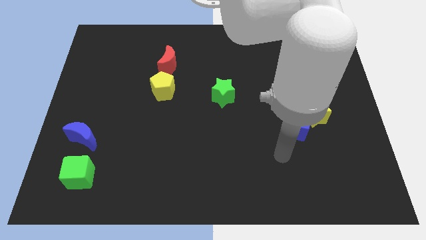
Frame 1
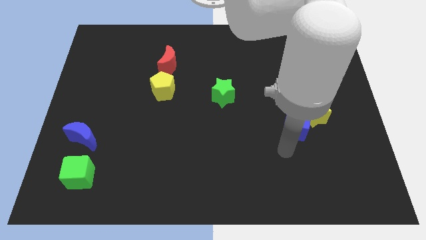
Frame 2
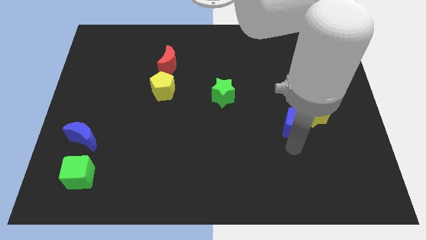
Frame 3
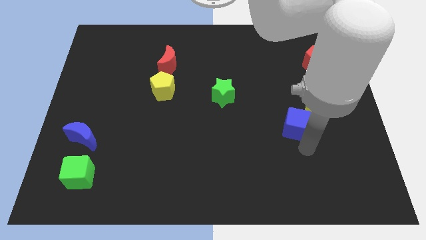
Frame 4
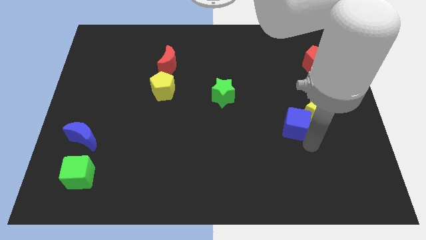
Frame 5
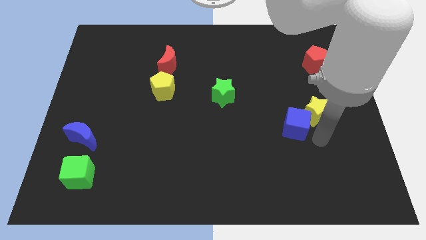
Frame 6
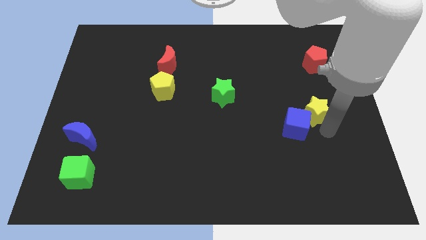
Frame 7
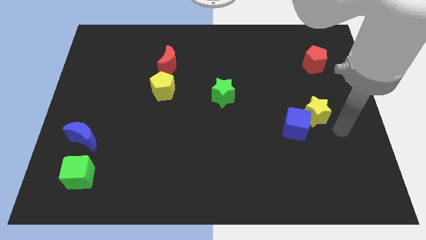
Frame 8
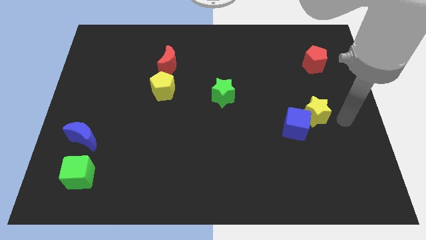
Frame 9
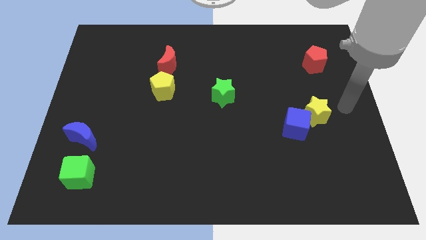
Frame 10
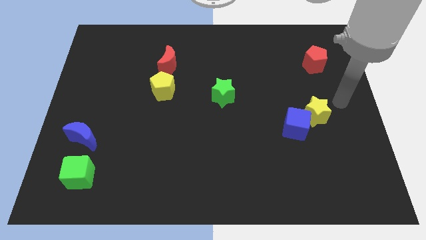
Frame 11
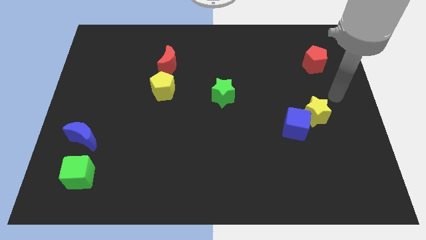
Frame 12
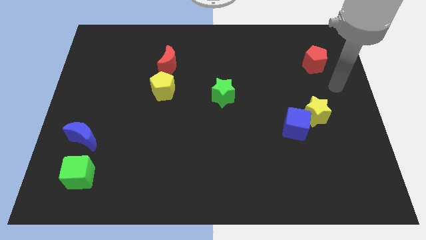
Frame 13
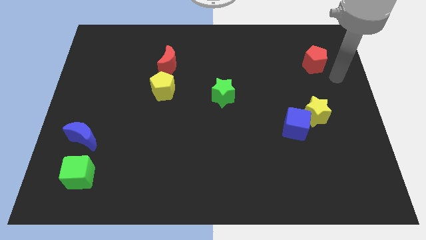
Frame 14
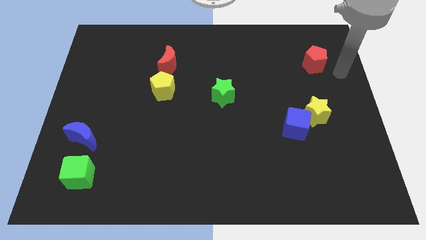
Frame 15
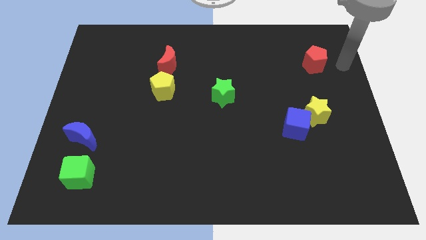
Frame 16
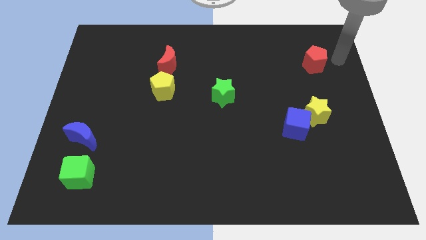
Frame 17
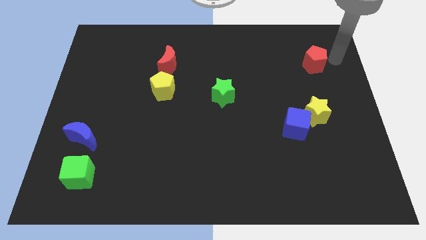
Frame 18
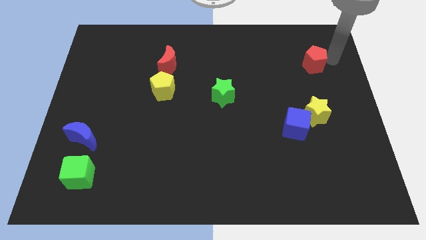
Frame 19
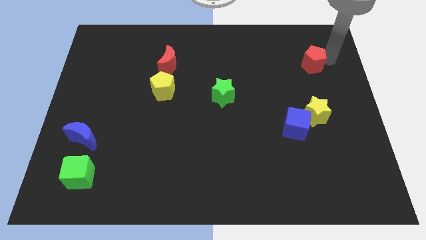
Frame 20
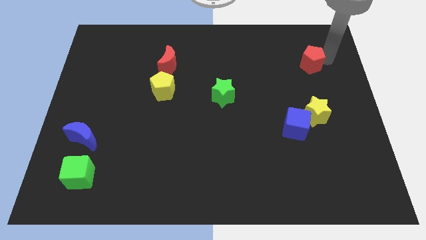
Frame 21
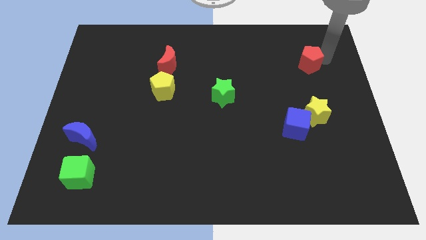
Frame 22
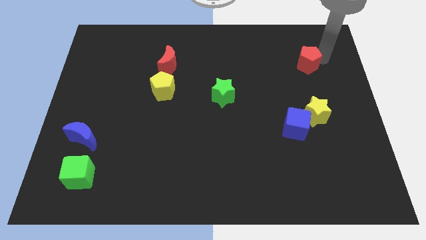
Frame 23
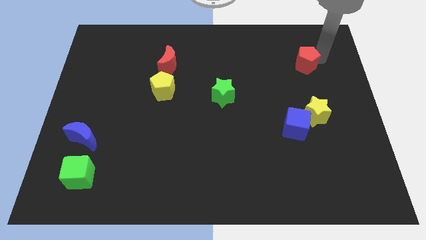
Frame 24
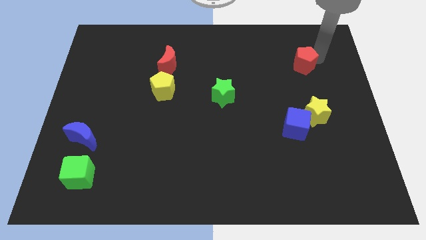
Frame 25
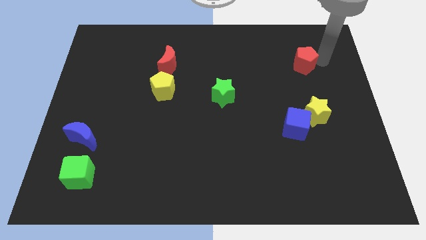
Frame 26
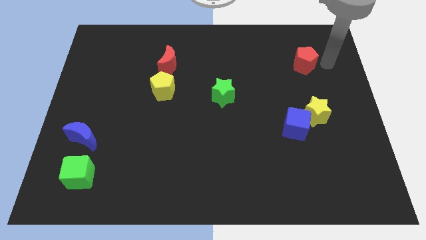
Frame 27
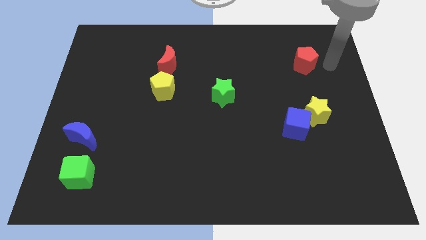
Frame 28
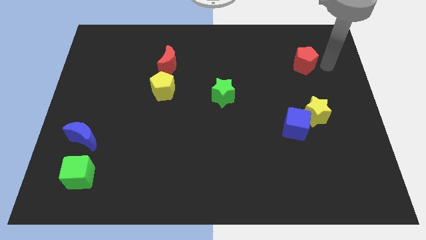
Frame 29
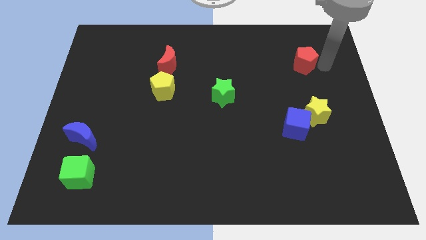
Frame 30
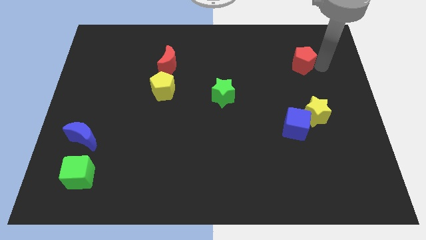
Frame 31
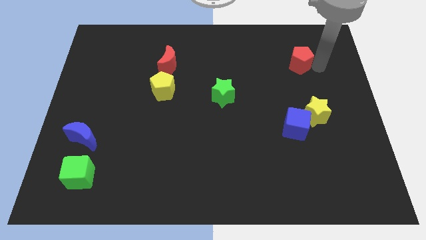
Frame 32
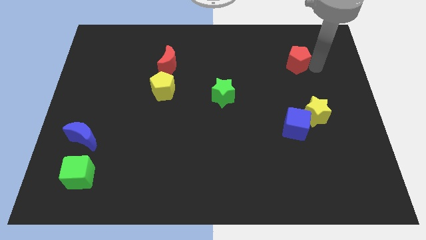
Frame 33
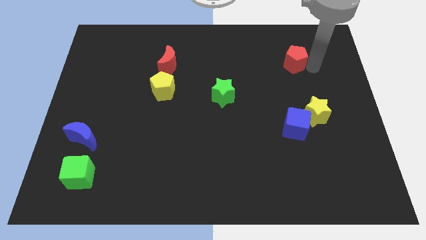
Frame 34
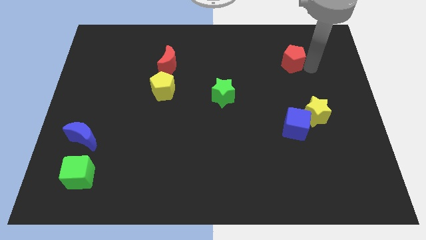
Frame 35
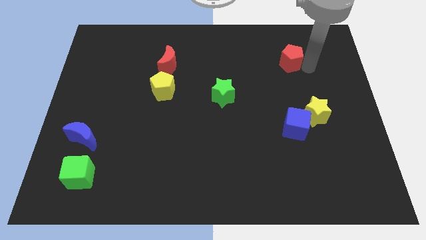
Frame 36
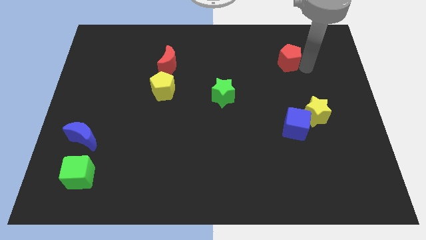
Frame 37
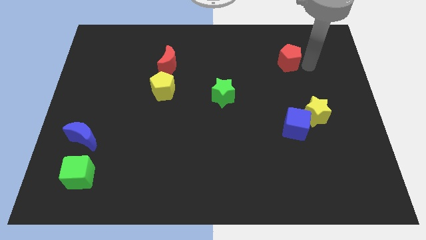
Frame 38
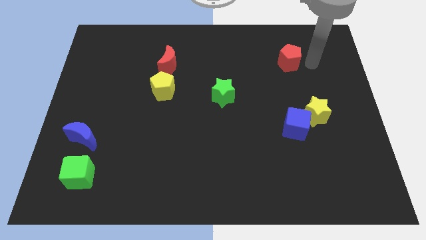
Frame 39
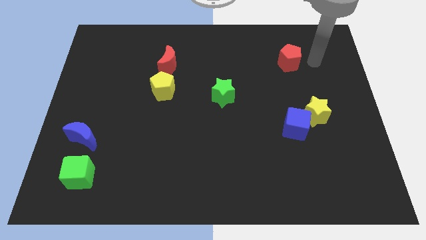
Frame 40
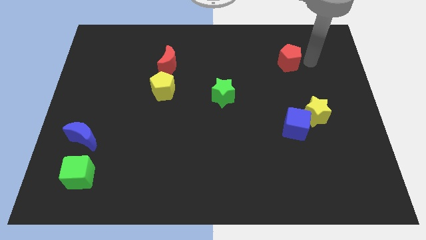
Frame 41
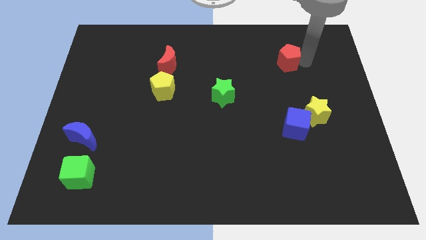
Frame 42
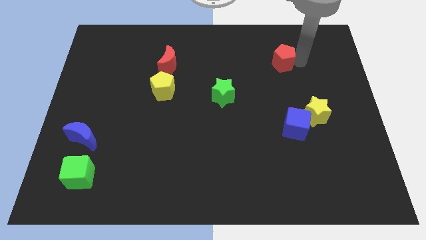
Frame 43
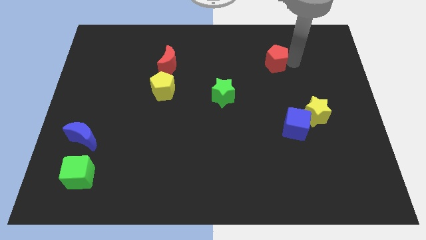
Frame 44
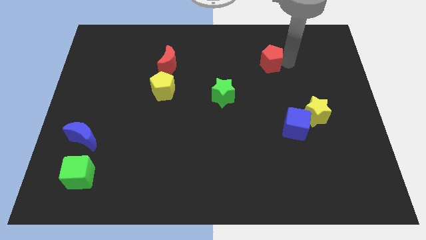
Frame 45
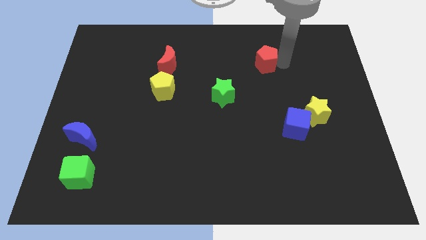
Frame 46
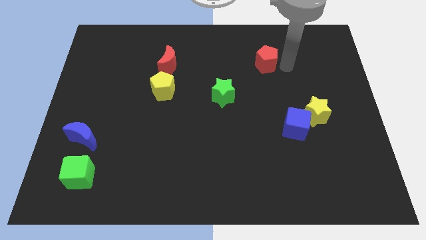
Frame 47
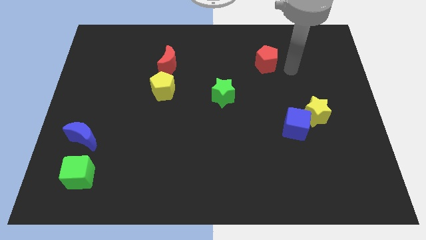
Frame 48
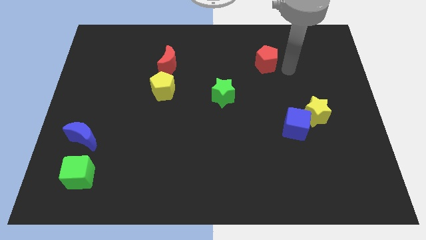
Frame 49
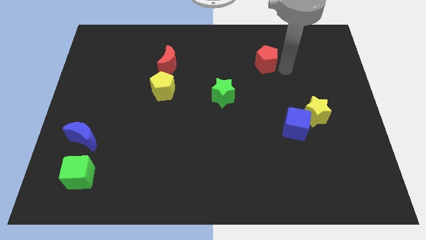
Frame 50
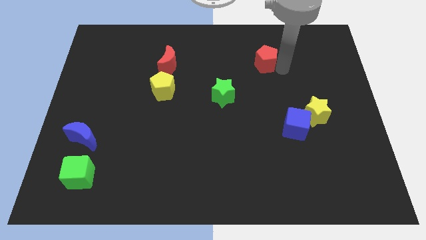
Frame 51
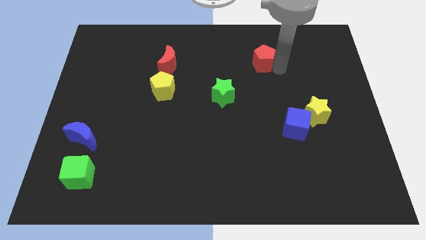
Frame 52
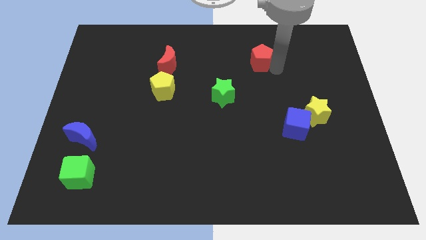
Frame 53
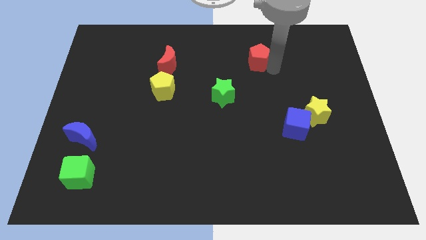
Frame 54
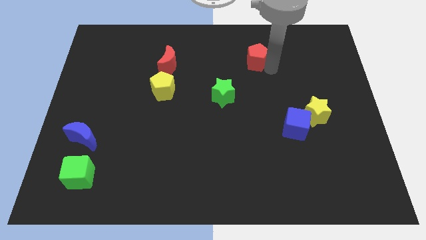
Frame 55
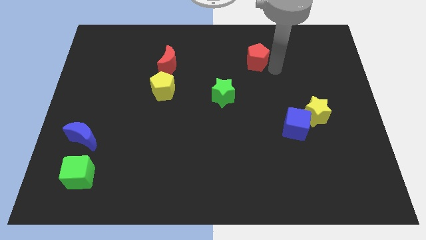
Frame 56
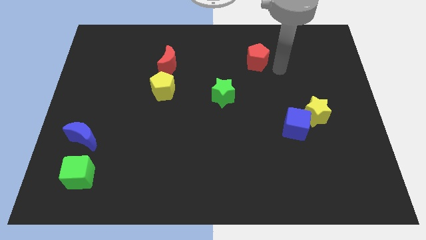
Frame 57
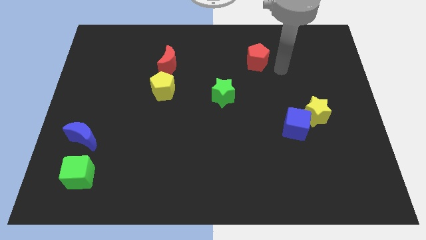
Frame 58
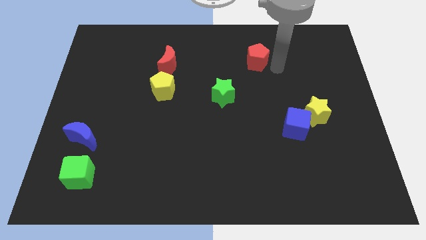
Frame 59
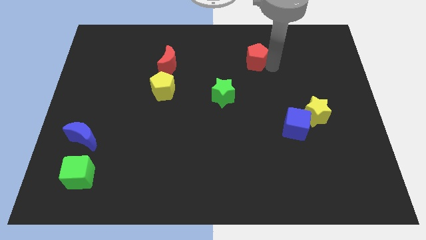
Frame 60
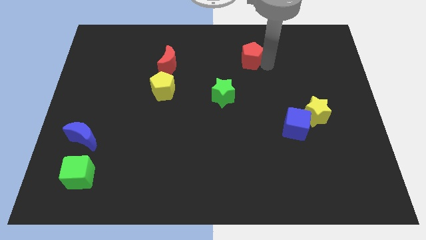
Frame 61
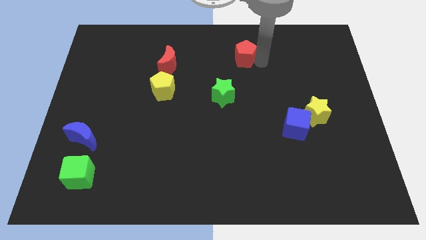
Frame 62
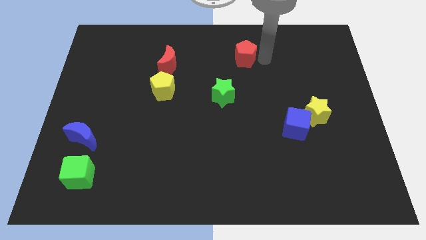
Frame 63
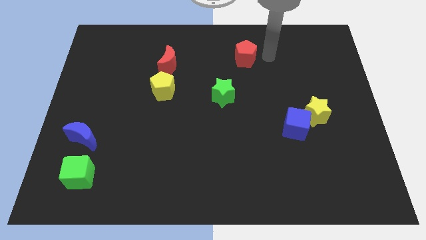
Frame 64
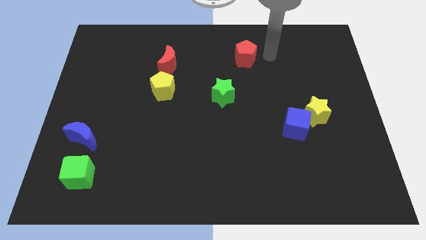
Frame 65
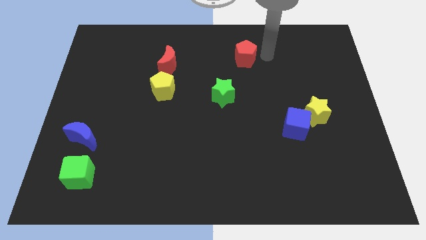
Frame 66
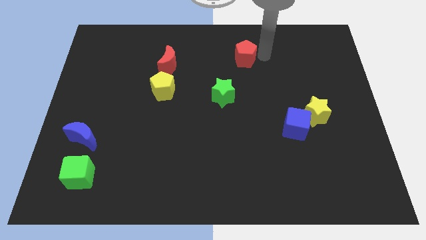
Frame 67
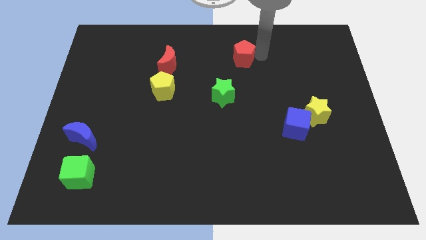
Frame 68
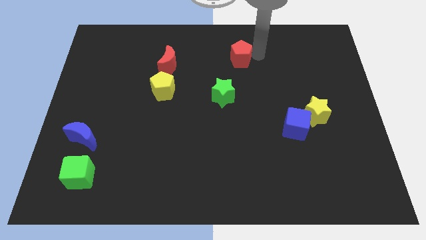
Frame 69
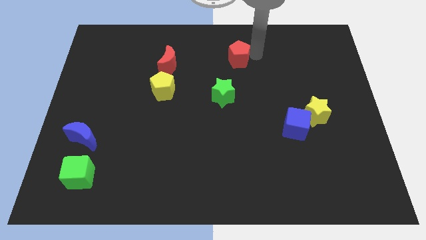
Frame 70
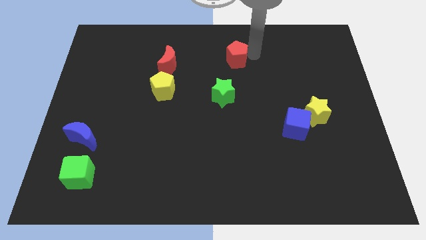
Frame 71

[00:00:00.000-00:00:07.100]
slide the red pentagon to the left

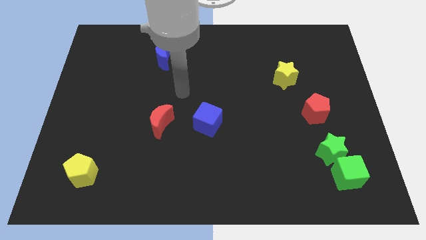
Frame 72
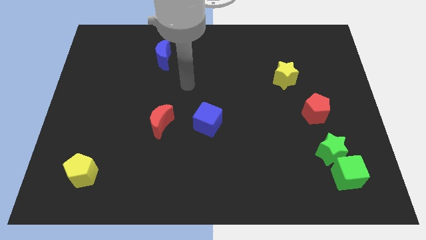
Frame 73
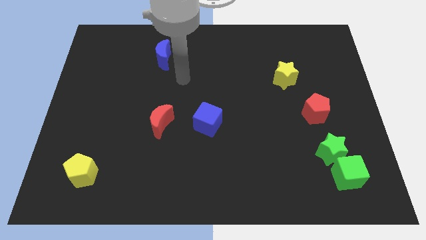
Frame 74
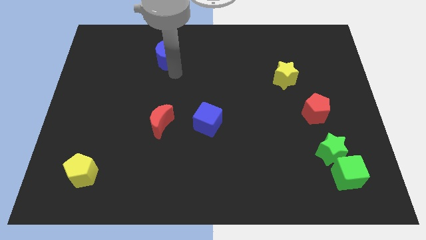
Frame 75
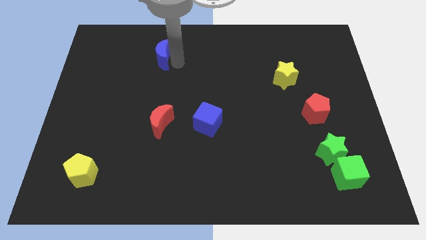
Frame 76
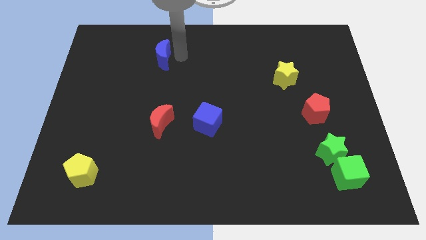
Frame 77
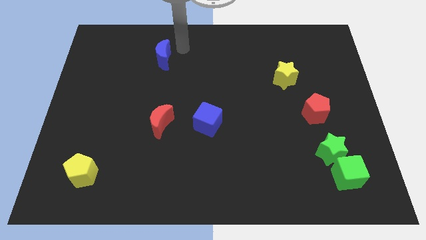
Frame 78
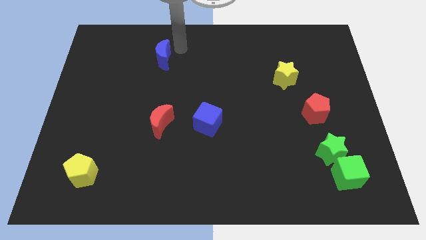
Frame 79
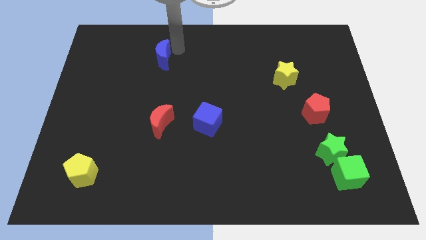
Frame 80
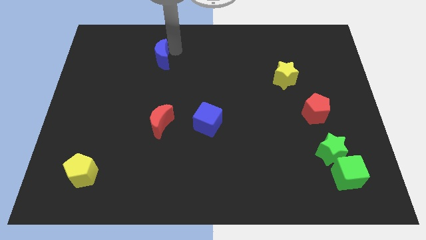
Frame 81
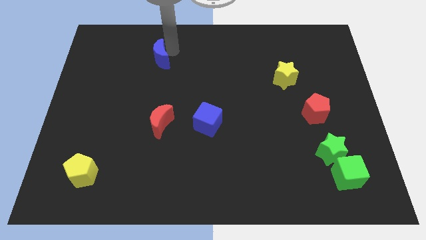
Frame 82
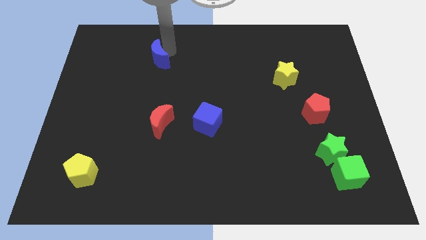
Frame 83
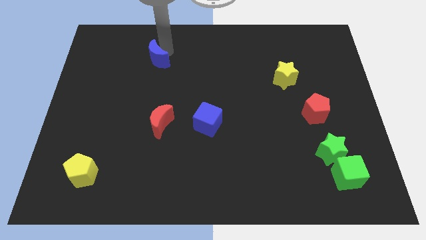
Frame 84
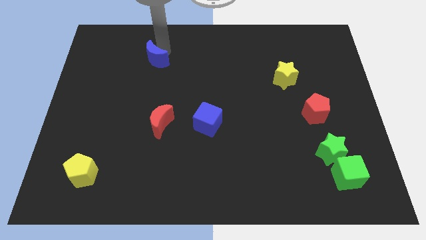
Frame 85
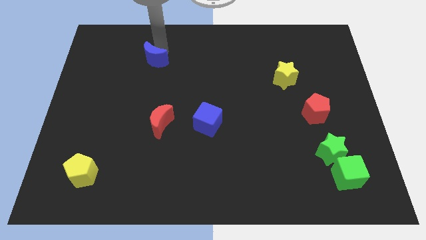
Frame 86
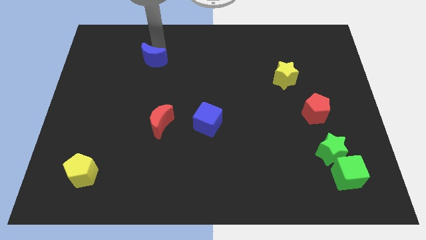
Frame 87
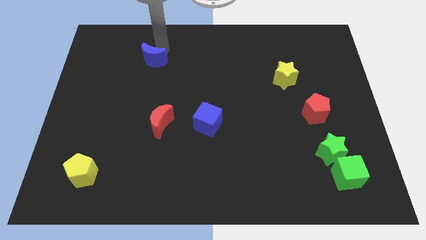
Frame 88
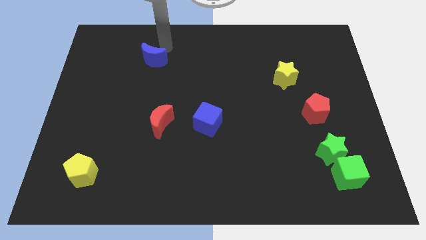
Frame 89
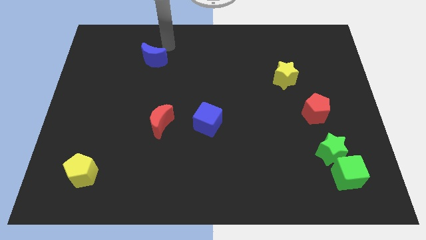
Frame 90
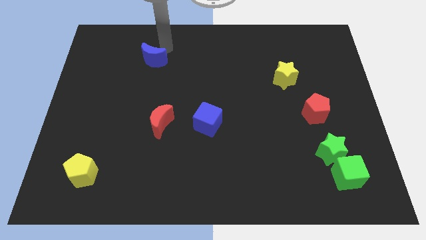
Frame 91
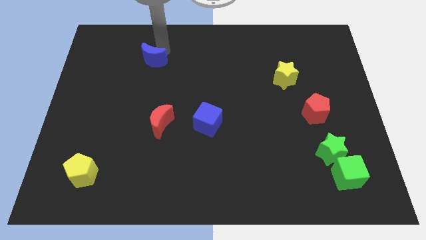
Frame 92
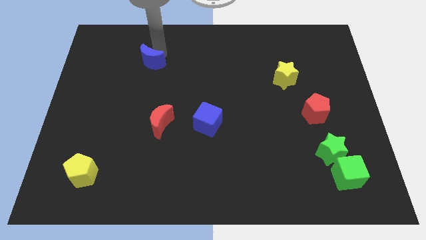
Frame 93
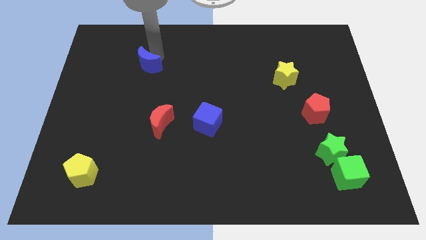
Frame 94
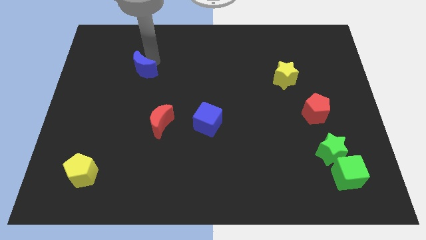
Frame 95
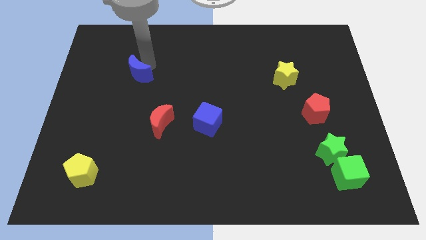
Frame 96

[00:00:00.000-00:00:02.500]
move the blue moon a little bit downwards and to the left diagonally
